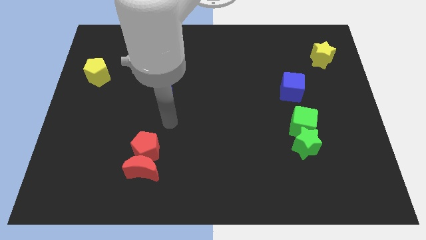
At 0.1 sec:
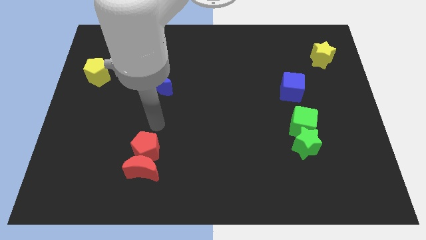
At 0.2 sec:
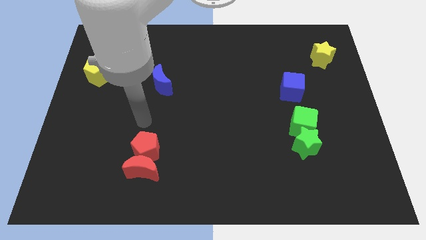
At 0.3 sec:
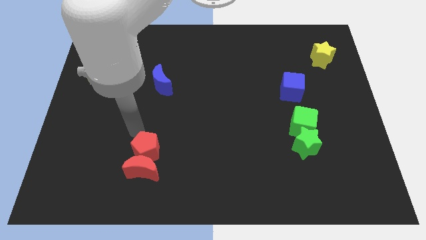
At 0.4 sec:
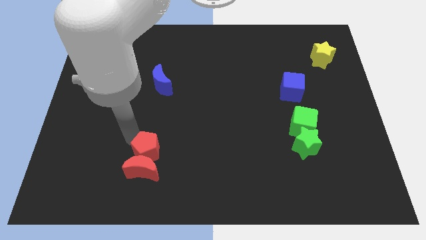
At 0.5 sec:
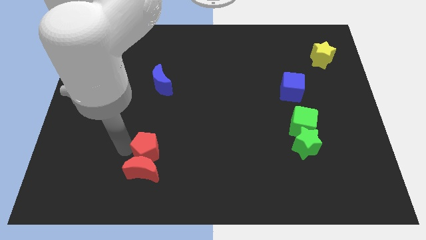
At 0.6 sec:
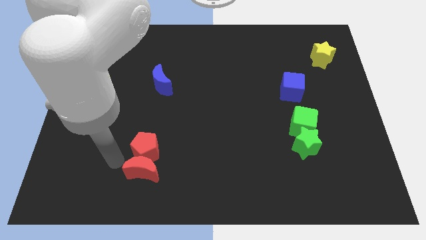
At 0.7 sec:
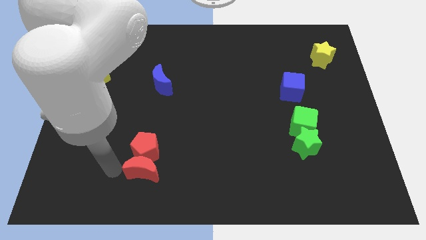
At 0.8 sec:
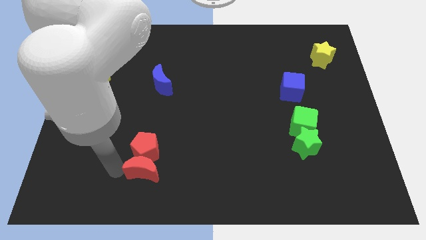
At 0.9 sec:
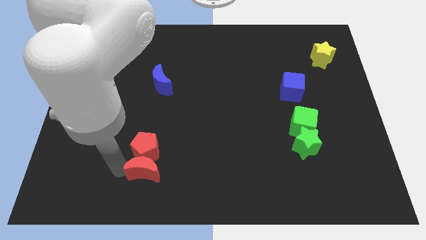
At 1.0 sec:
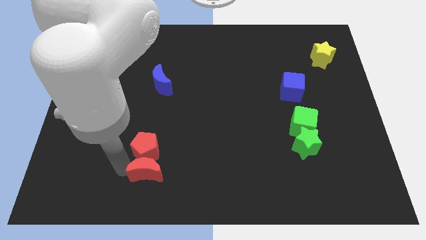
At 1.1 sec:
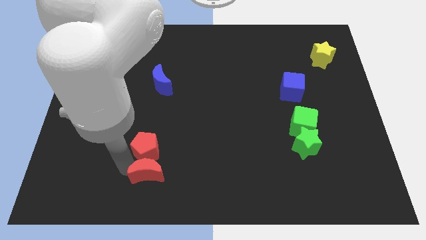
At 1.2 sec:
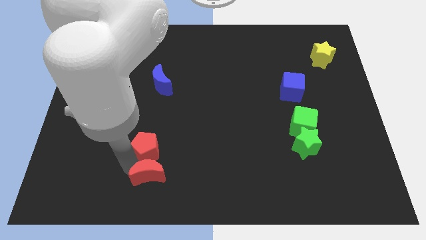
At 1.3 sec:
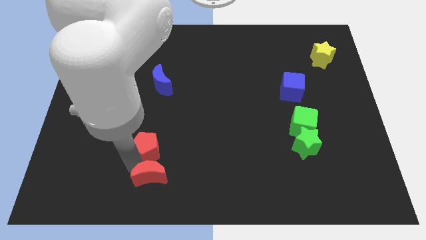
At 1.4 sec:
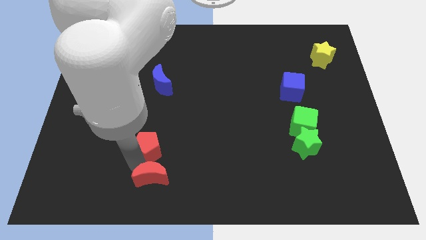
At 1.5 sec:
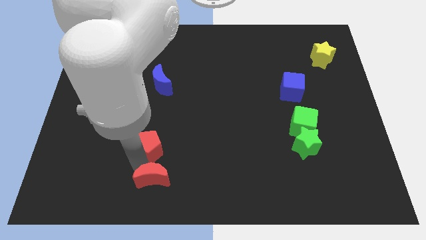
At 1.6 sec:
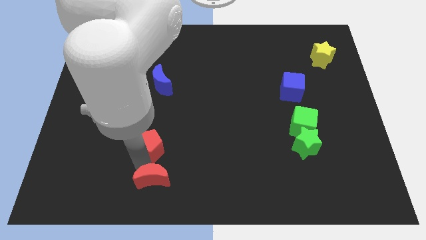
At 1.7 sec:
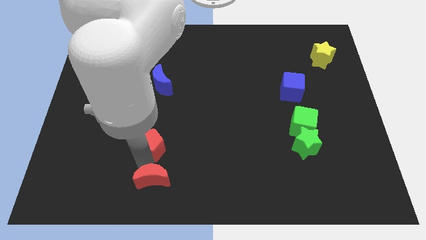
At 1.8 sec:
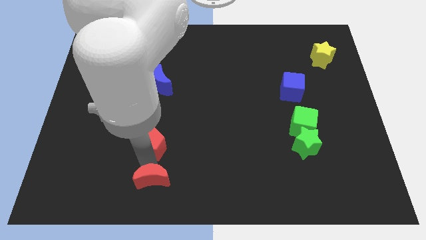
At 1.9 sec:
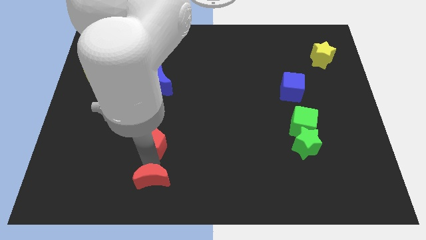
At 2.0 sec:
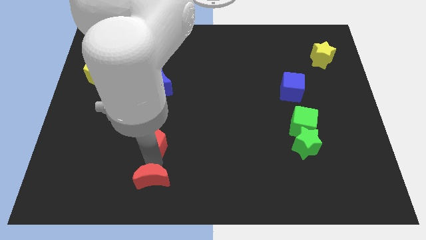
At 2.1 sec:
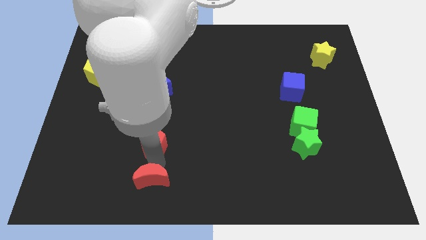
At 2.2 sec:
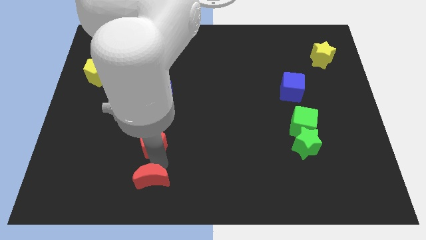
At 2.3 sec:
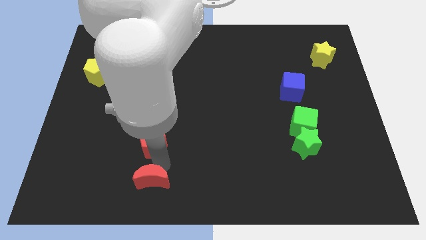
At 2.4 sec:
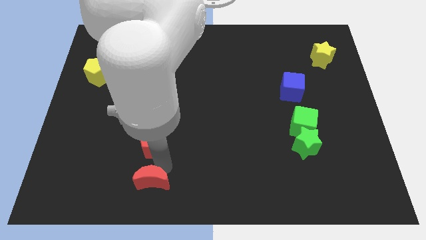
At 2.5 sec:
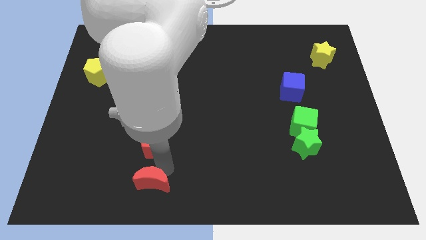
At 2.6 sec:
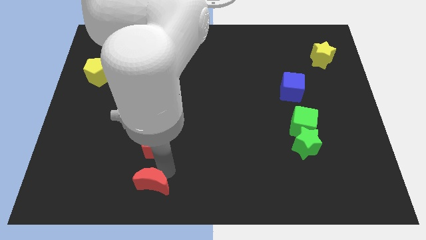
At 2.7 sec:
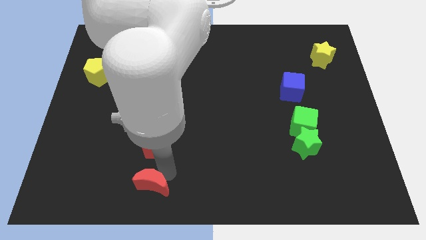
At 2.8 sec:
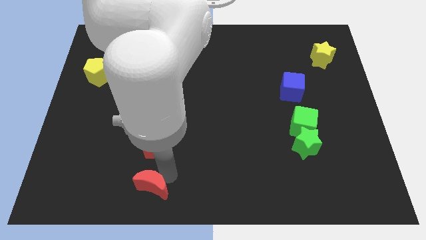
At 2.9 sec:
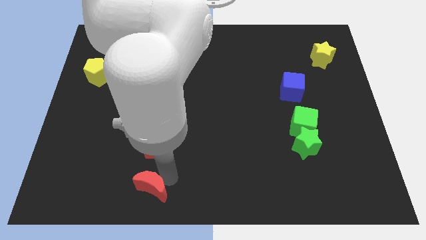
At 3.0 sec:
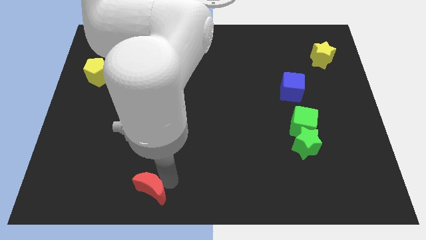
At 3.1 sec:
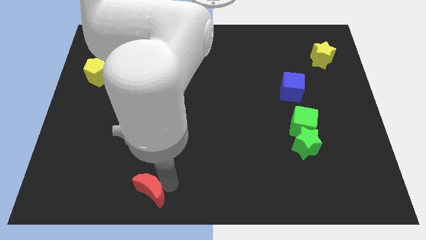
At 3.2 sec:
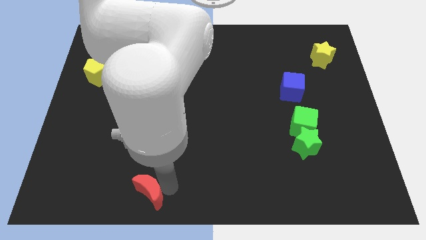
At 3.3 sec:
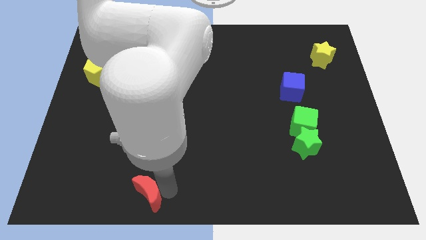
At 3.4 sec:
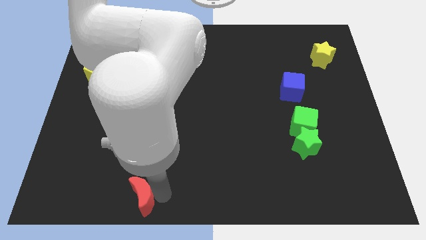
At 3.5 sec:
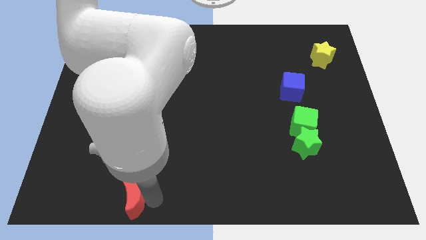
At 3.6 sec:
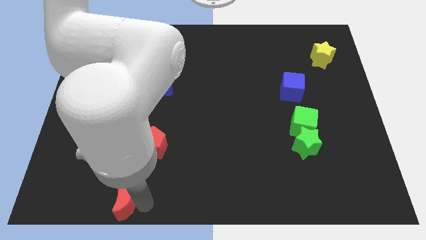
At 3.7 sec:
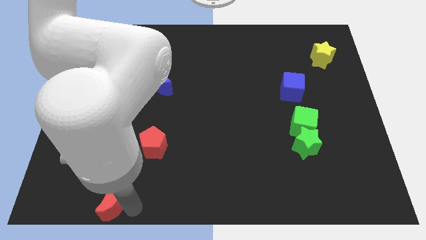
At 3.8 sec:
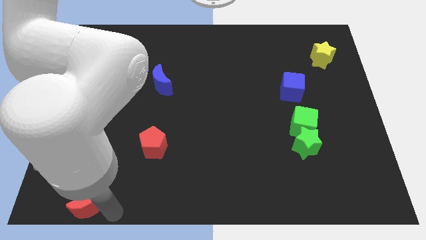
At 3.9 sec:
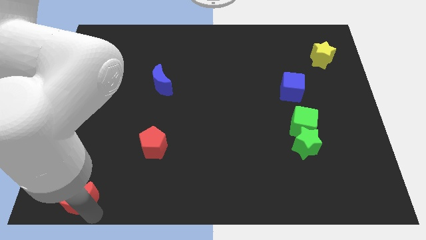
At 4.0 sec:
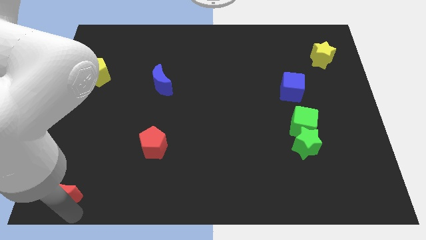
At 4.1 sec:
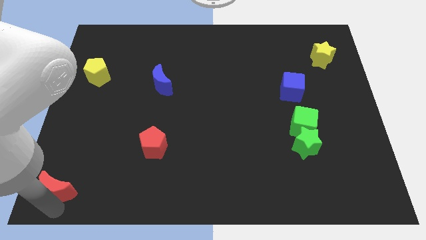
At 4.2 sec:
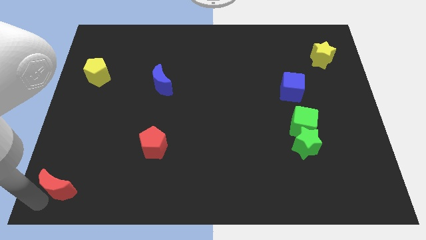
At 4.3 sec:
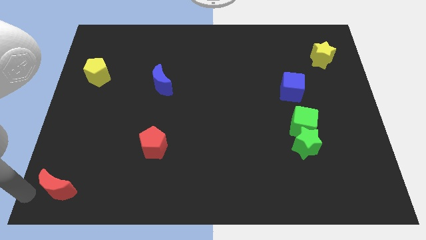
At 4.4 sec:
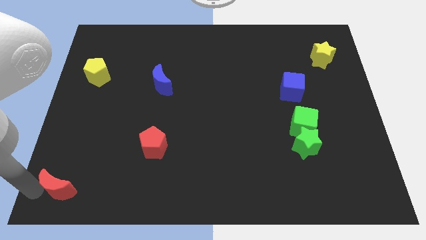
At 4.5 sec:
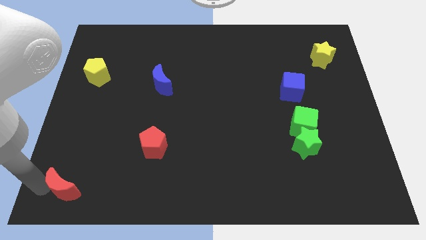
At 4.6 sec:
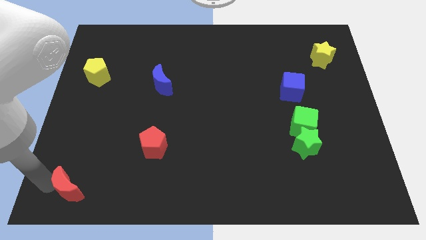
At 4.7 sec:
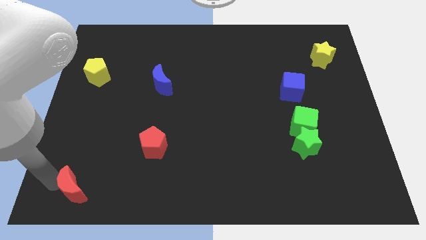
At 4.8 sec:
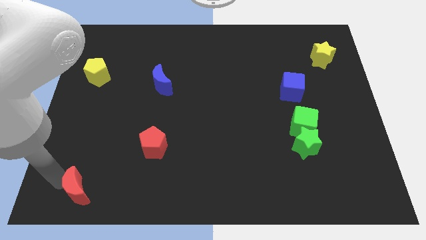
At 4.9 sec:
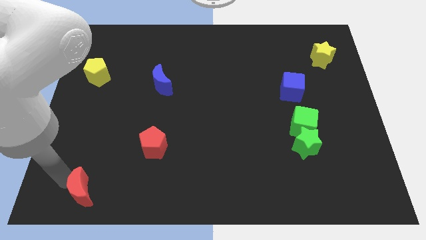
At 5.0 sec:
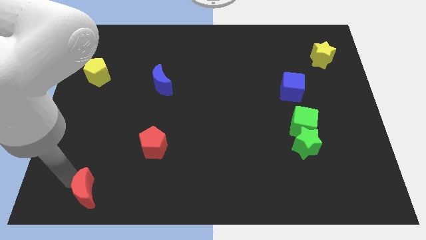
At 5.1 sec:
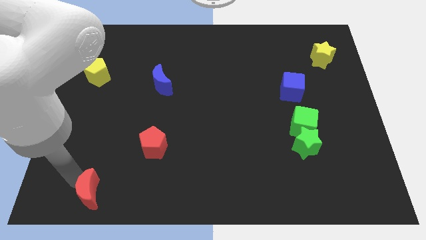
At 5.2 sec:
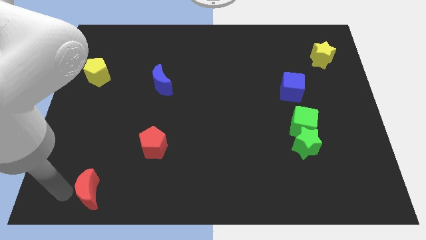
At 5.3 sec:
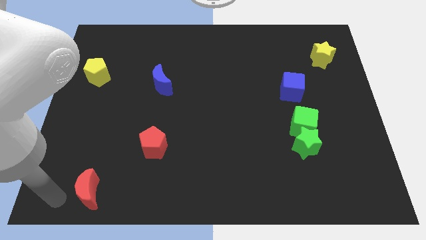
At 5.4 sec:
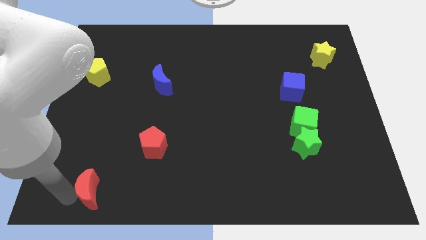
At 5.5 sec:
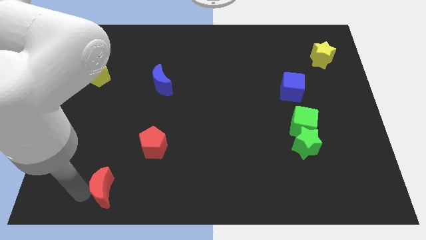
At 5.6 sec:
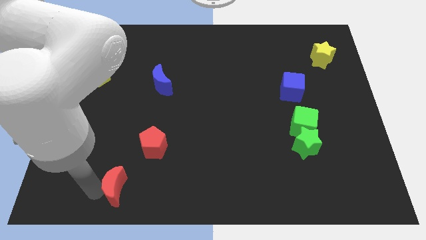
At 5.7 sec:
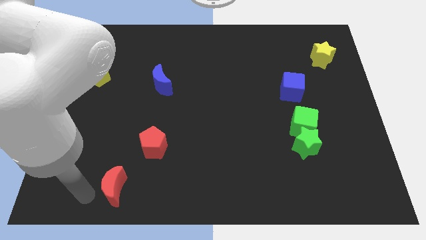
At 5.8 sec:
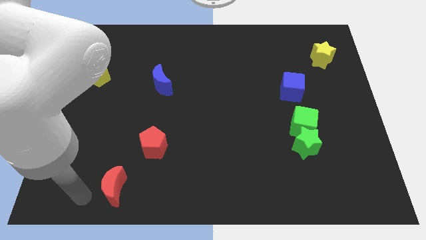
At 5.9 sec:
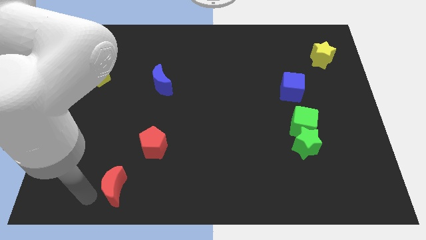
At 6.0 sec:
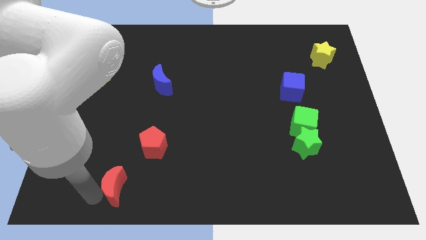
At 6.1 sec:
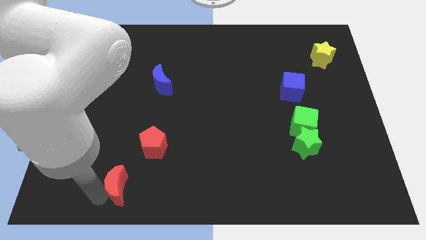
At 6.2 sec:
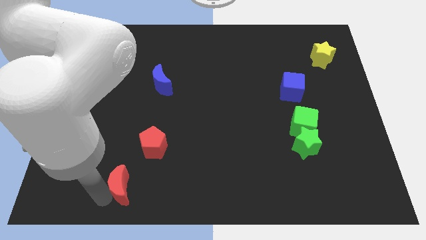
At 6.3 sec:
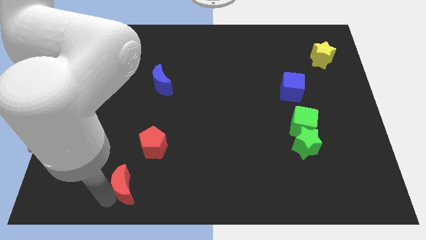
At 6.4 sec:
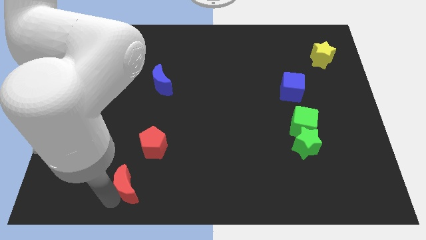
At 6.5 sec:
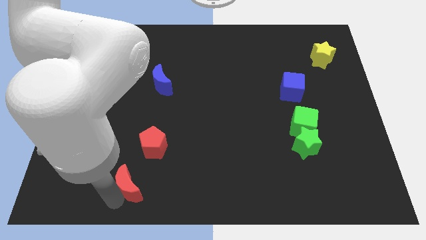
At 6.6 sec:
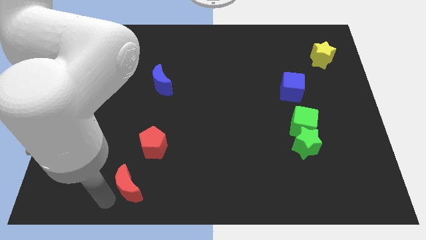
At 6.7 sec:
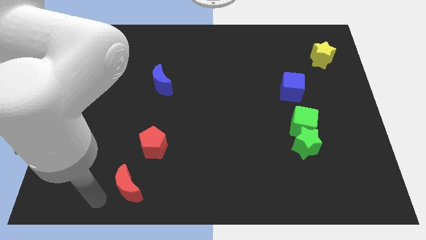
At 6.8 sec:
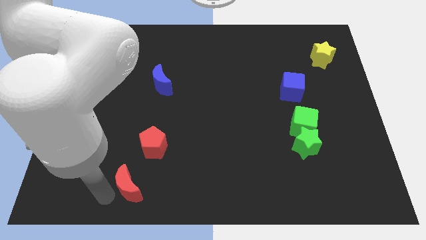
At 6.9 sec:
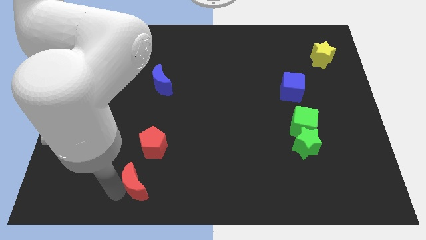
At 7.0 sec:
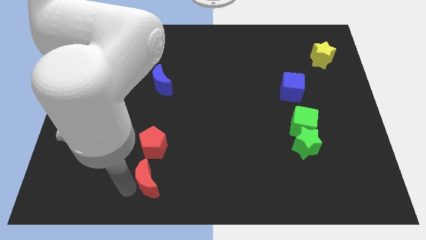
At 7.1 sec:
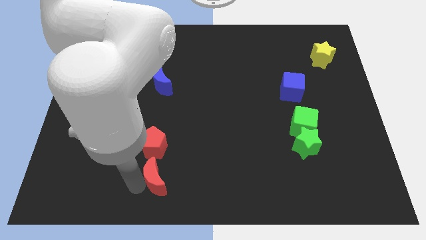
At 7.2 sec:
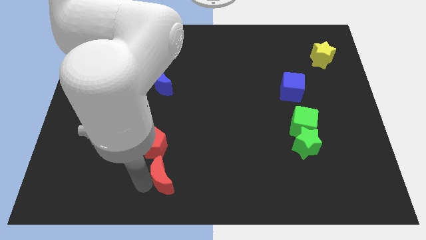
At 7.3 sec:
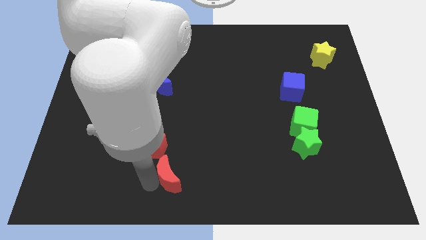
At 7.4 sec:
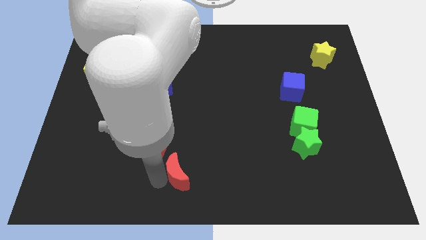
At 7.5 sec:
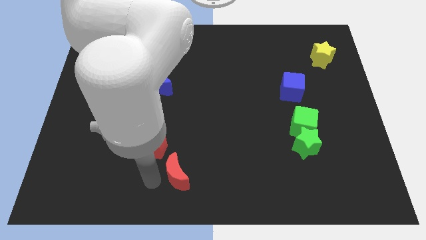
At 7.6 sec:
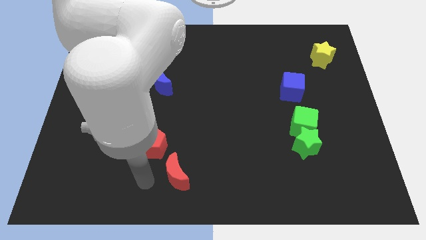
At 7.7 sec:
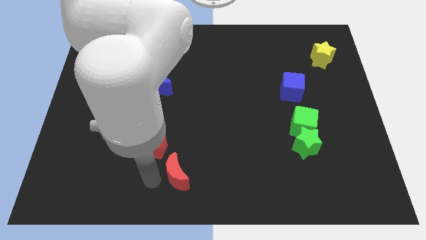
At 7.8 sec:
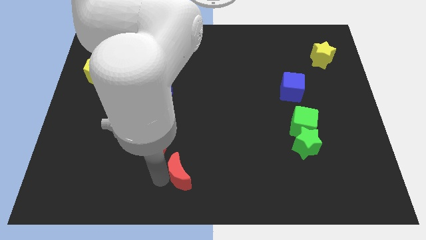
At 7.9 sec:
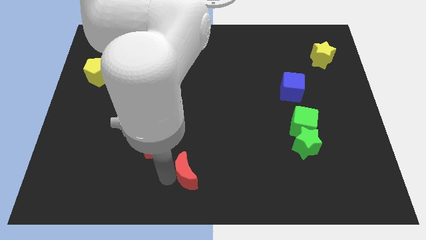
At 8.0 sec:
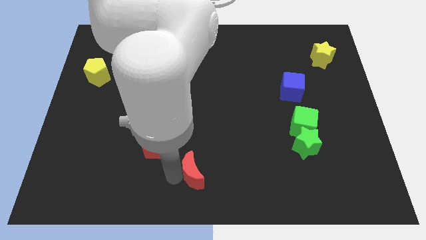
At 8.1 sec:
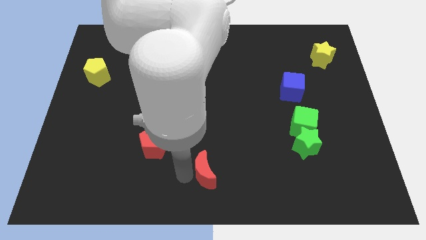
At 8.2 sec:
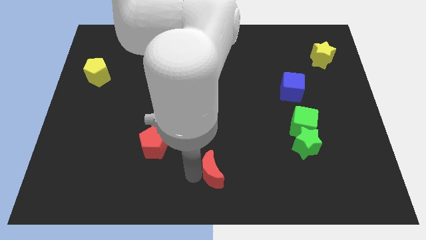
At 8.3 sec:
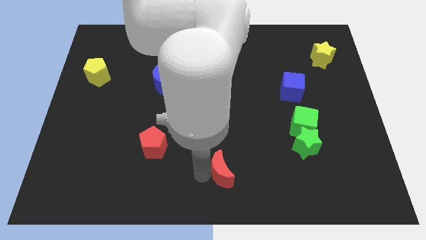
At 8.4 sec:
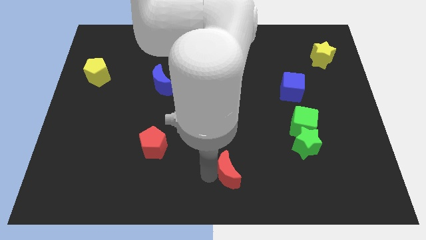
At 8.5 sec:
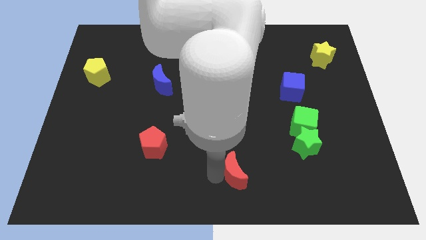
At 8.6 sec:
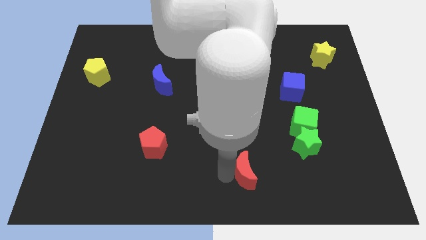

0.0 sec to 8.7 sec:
move the red moon right
